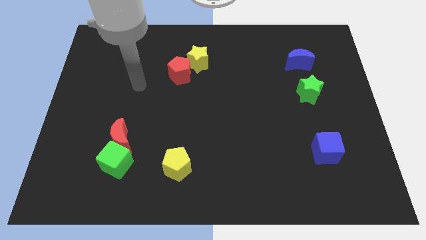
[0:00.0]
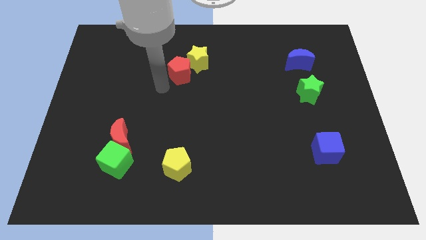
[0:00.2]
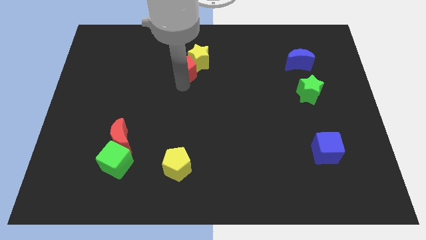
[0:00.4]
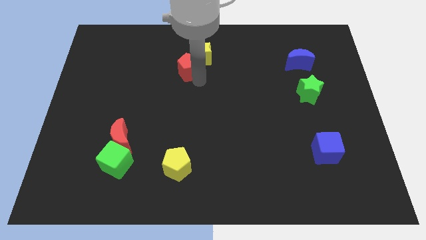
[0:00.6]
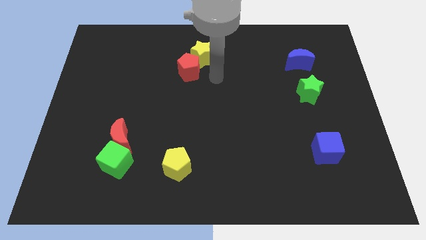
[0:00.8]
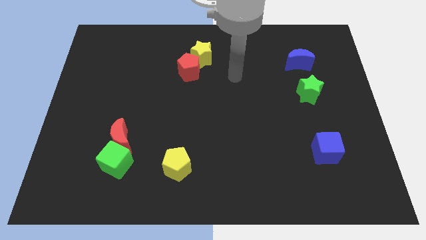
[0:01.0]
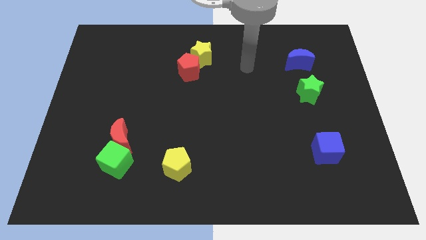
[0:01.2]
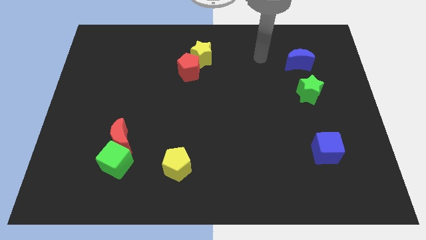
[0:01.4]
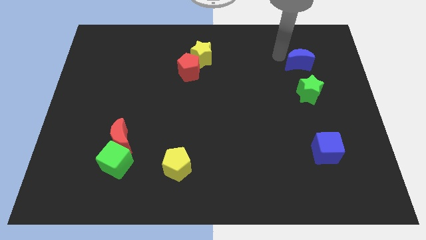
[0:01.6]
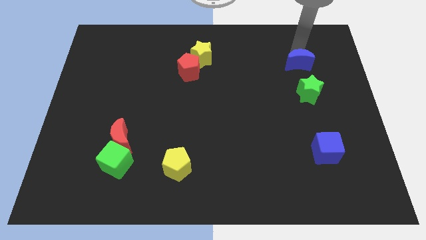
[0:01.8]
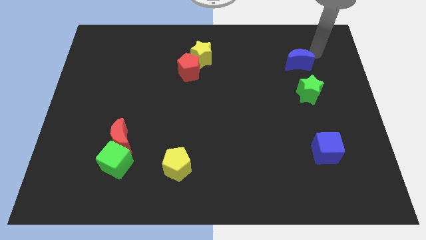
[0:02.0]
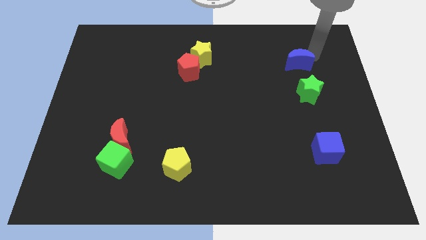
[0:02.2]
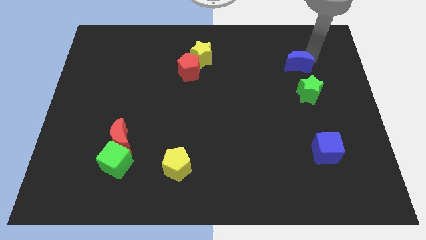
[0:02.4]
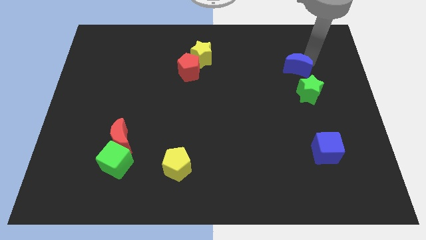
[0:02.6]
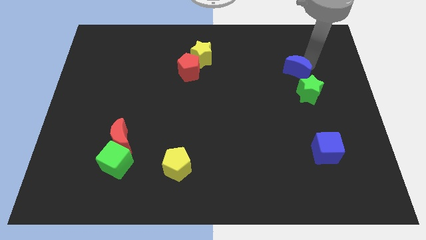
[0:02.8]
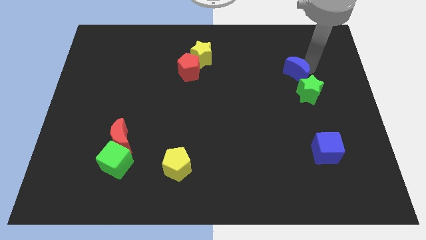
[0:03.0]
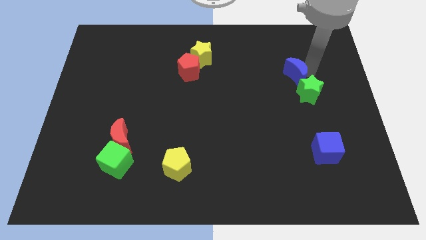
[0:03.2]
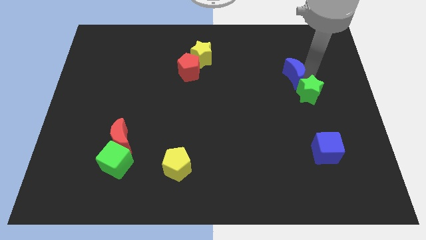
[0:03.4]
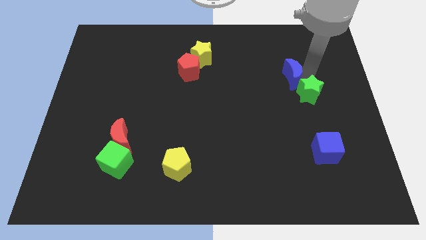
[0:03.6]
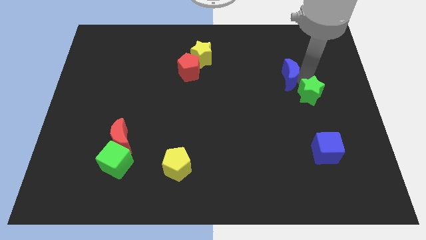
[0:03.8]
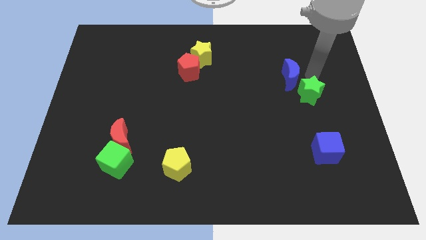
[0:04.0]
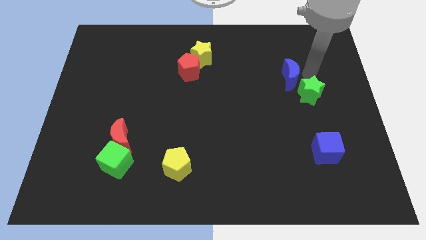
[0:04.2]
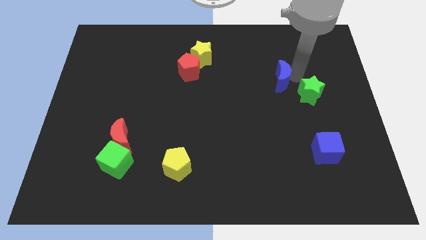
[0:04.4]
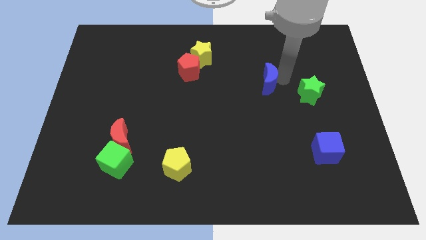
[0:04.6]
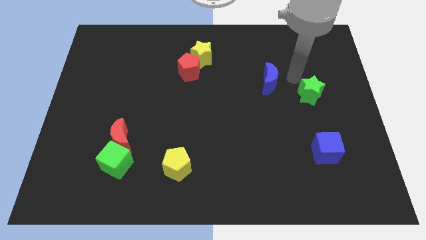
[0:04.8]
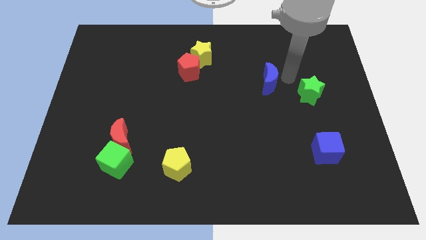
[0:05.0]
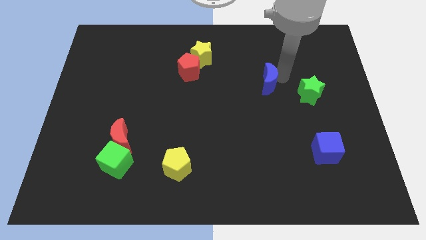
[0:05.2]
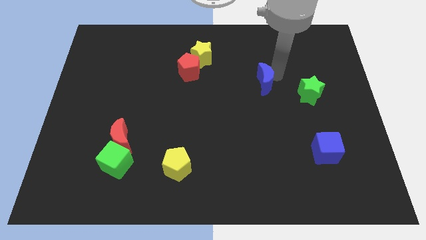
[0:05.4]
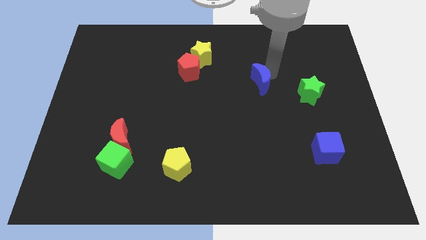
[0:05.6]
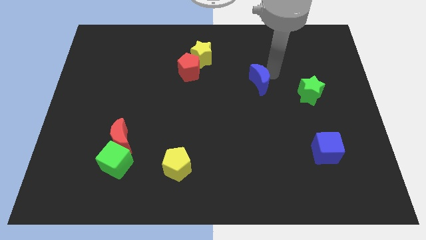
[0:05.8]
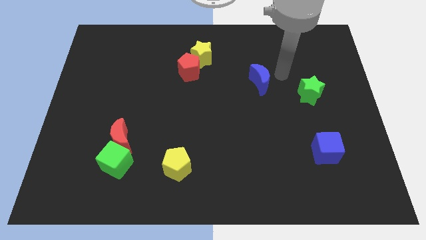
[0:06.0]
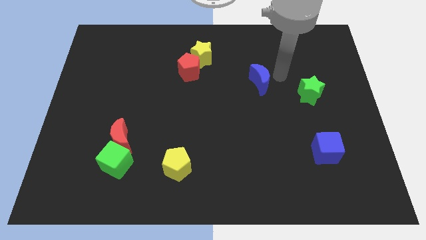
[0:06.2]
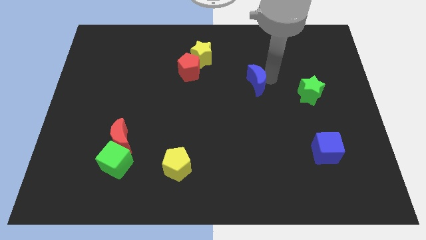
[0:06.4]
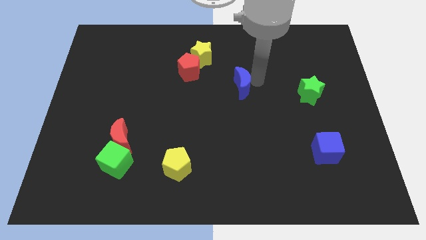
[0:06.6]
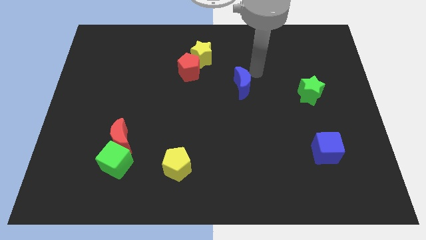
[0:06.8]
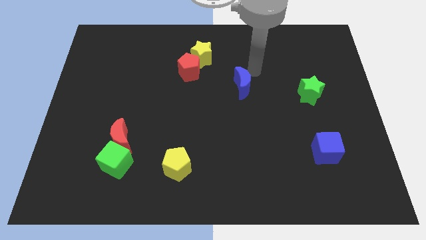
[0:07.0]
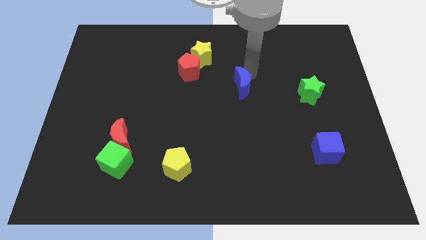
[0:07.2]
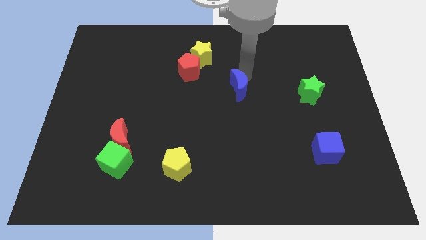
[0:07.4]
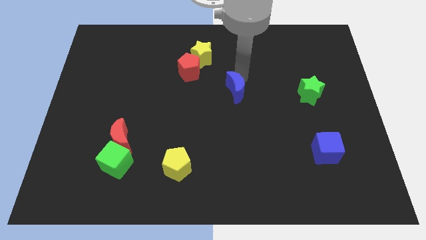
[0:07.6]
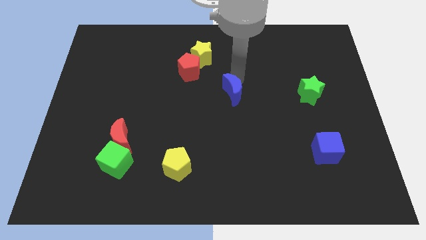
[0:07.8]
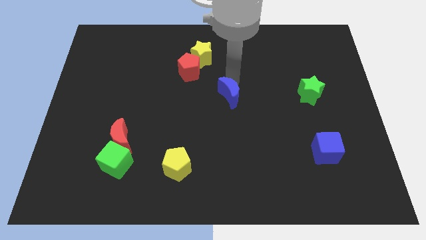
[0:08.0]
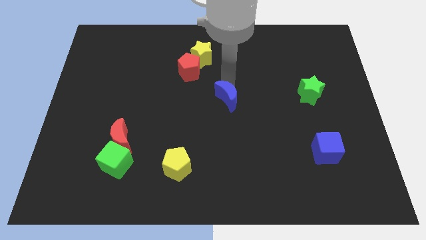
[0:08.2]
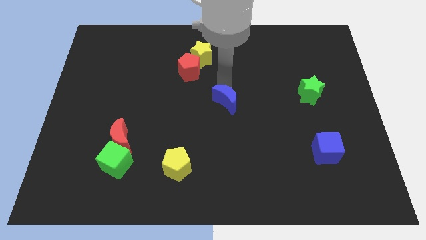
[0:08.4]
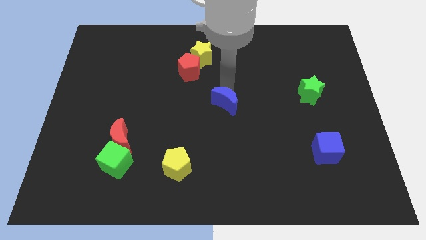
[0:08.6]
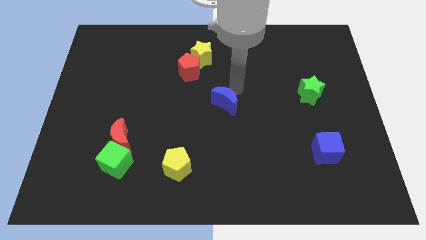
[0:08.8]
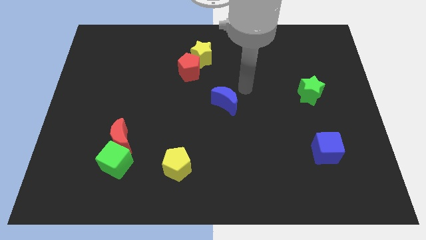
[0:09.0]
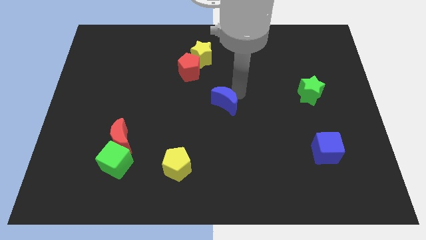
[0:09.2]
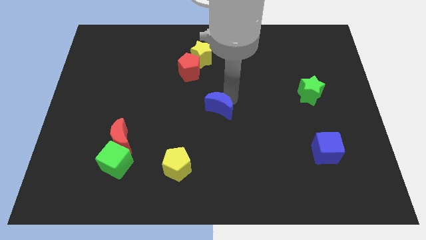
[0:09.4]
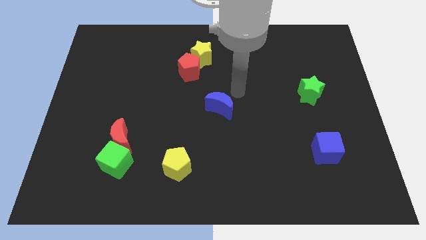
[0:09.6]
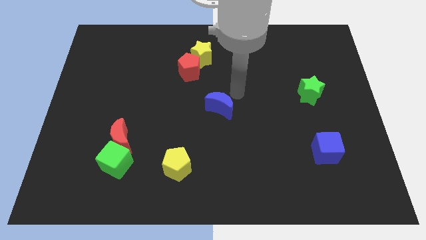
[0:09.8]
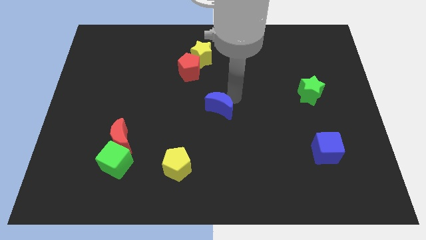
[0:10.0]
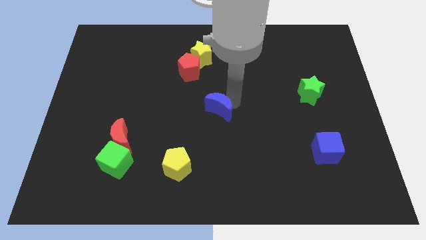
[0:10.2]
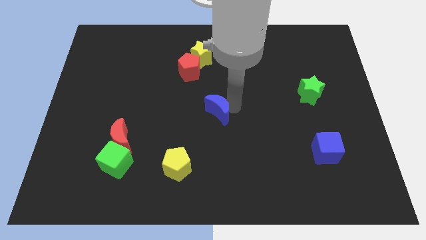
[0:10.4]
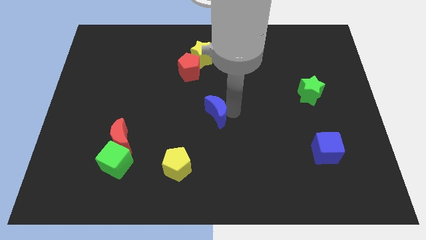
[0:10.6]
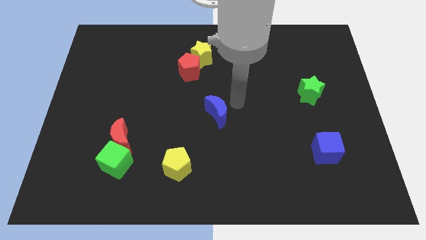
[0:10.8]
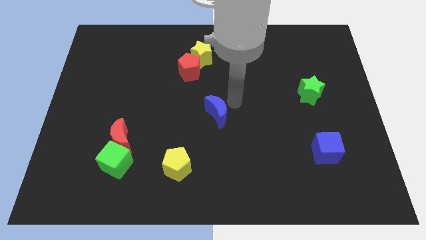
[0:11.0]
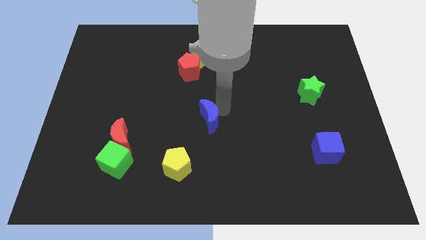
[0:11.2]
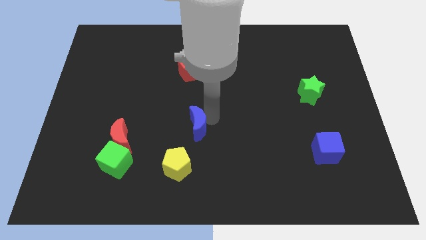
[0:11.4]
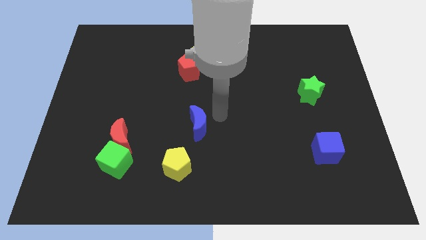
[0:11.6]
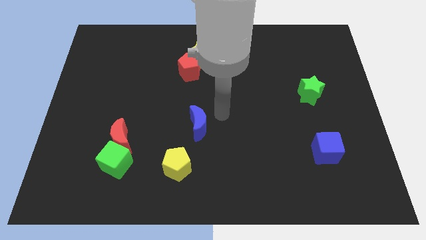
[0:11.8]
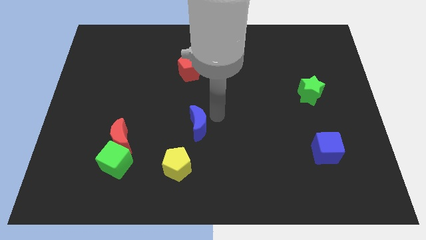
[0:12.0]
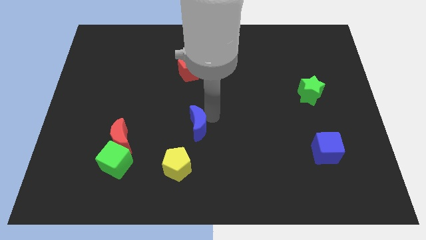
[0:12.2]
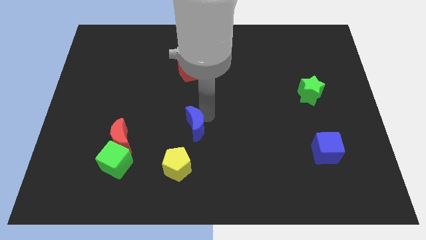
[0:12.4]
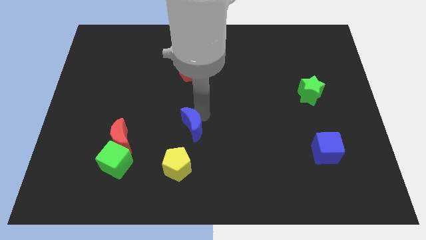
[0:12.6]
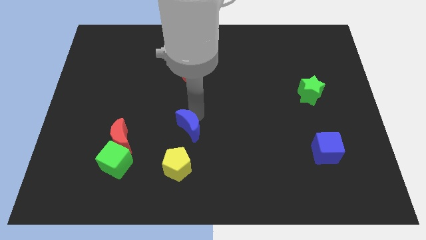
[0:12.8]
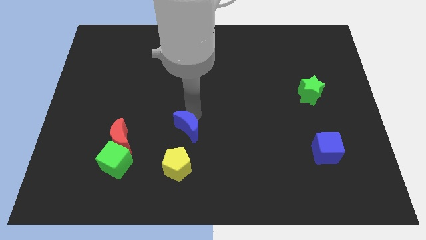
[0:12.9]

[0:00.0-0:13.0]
push the blue moon to the right side of the red moon
